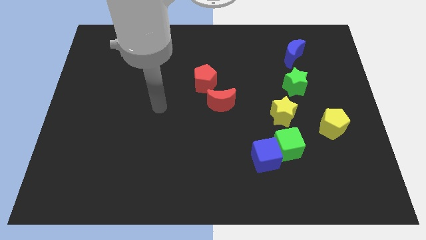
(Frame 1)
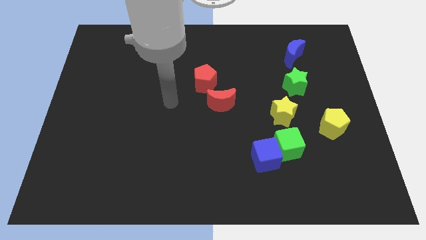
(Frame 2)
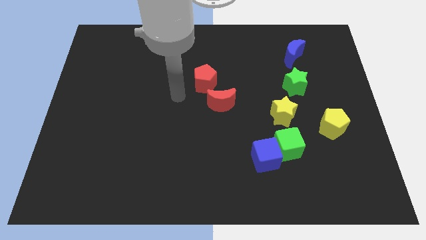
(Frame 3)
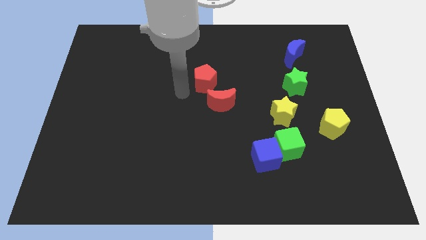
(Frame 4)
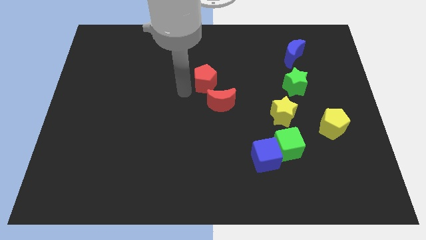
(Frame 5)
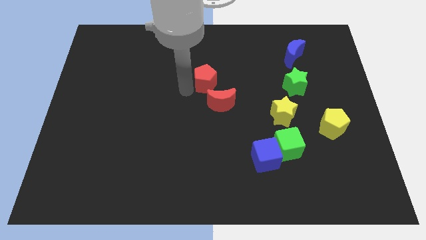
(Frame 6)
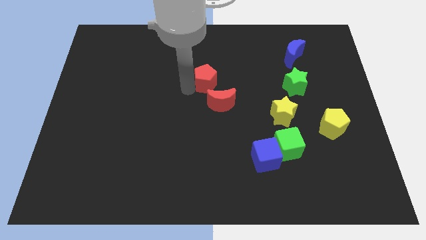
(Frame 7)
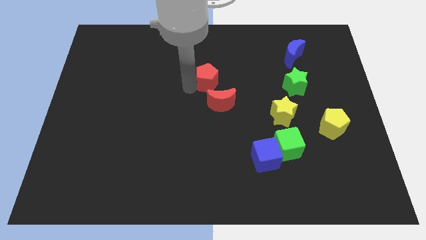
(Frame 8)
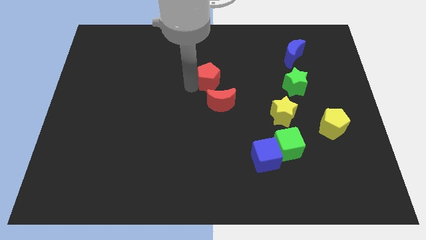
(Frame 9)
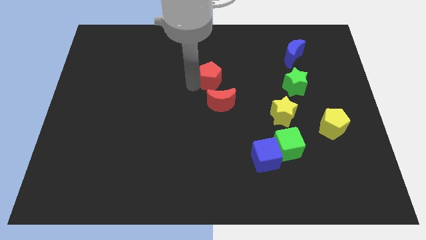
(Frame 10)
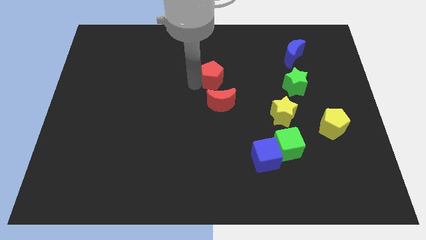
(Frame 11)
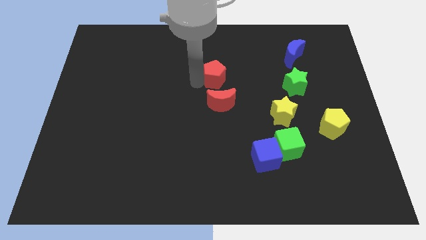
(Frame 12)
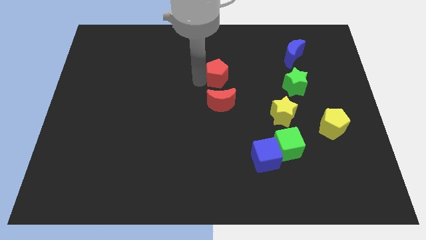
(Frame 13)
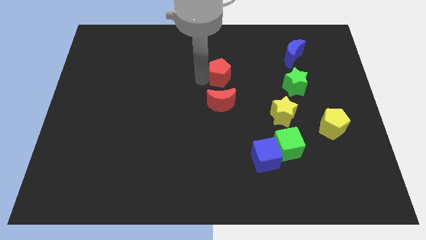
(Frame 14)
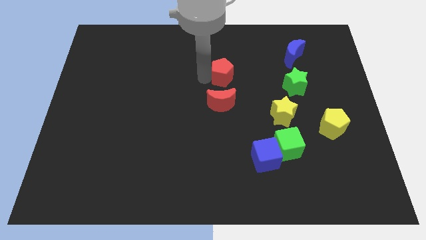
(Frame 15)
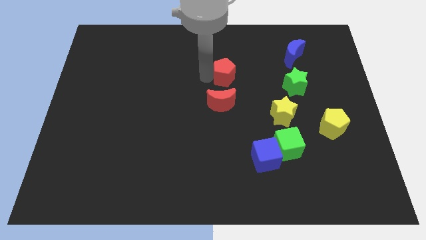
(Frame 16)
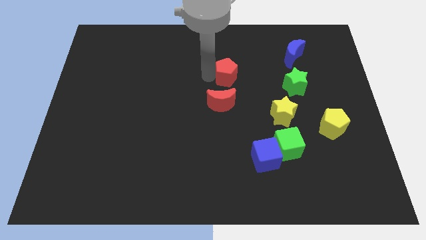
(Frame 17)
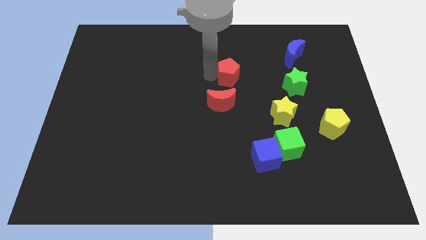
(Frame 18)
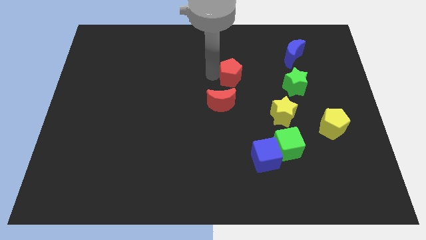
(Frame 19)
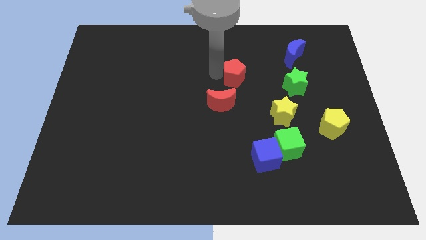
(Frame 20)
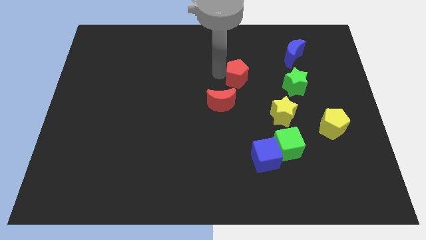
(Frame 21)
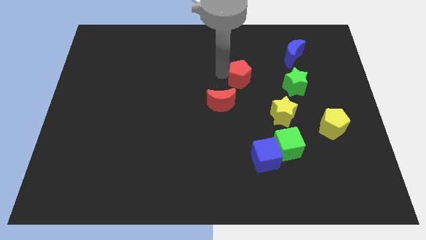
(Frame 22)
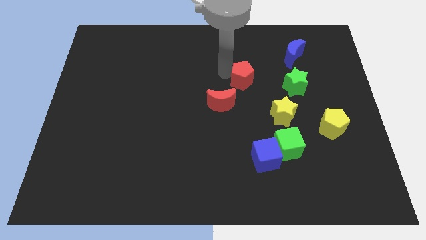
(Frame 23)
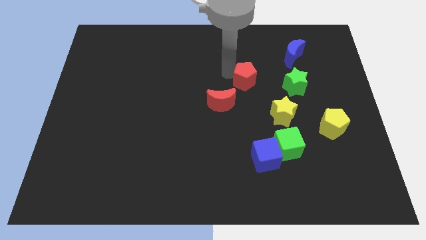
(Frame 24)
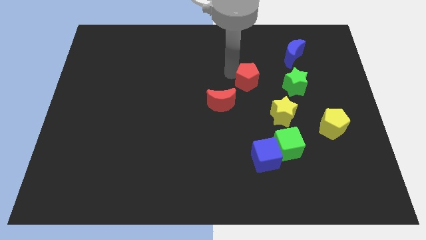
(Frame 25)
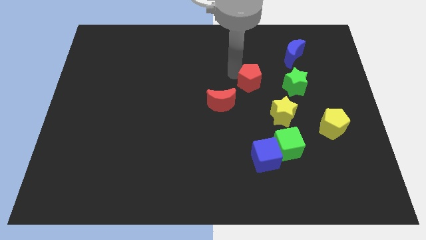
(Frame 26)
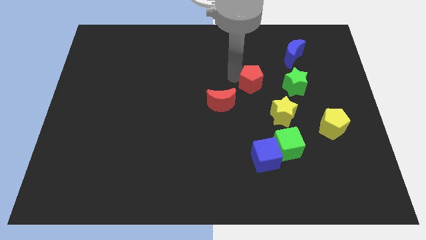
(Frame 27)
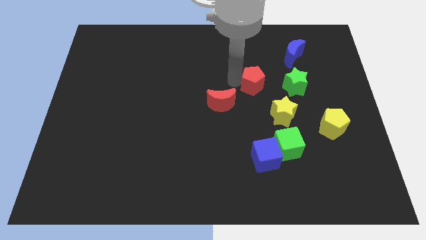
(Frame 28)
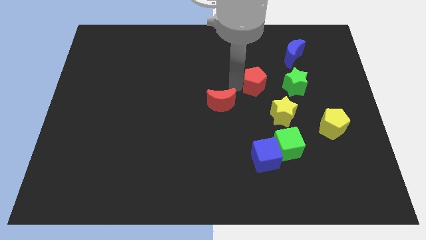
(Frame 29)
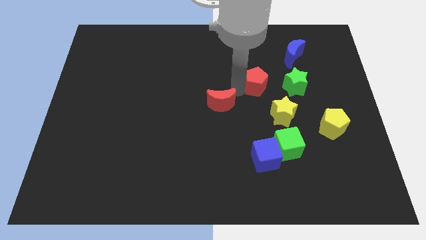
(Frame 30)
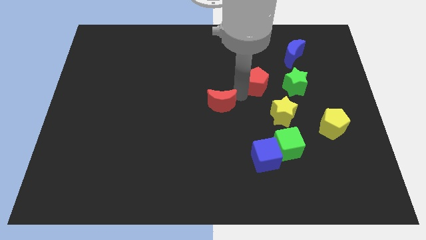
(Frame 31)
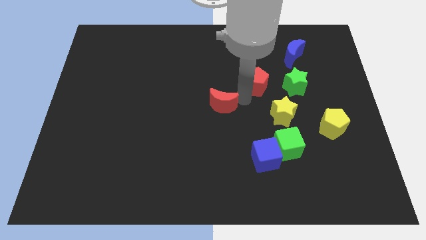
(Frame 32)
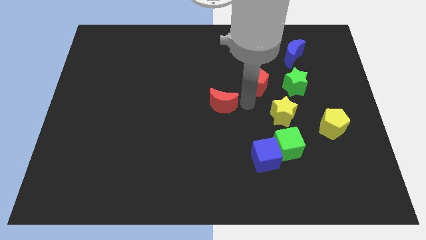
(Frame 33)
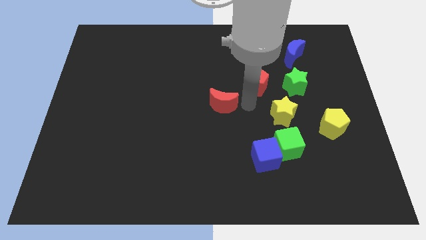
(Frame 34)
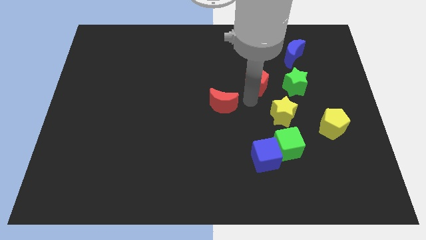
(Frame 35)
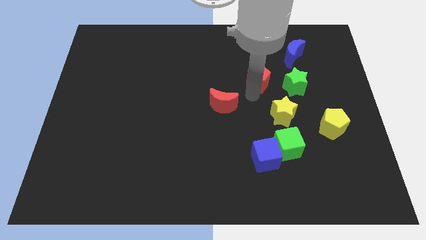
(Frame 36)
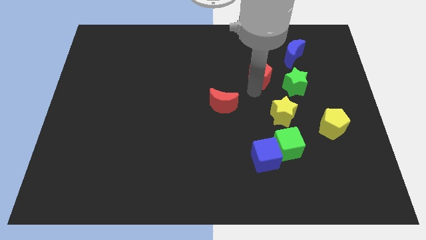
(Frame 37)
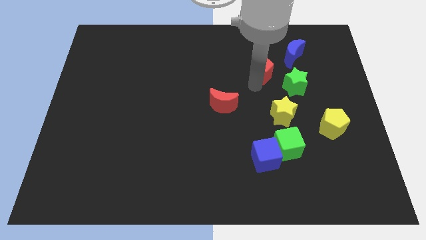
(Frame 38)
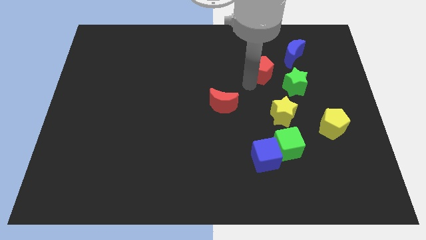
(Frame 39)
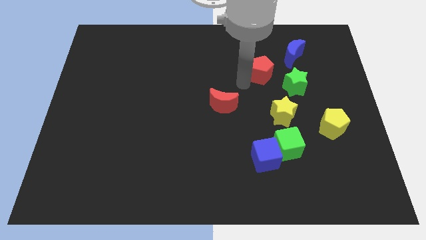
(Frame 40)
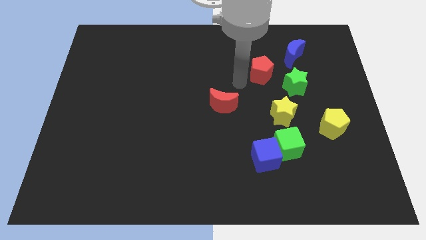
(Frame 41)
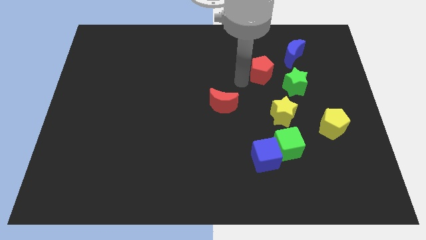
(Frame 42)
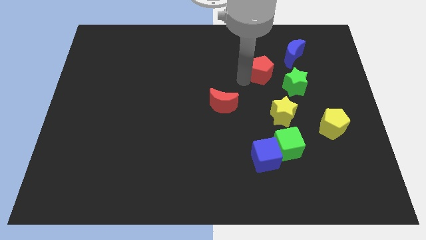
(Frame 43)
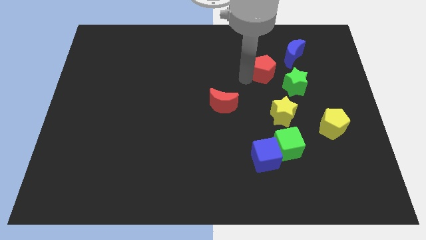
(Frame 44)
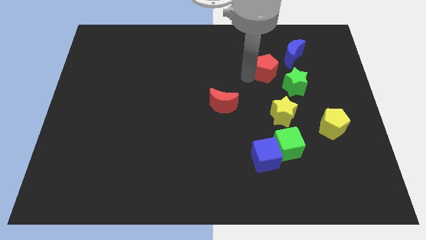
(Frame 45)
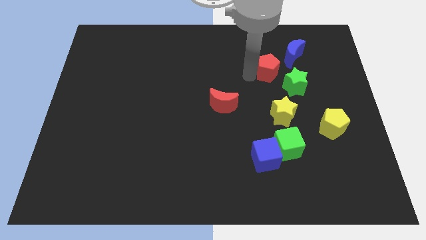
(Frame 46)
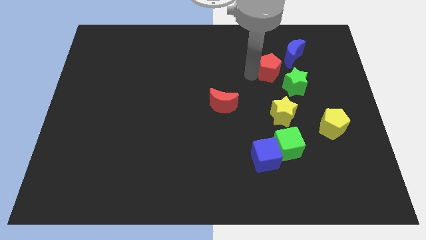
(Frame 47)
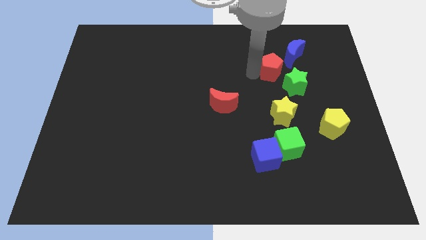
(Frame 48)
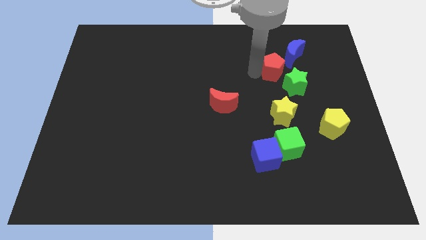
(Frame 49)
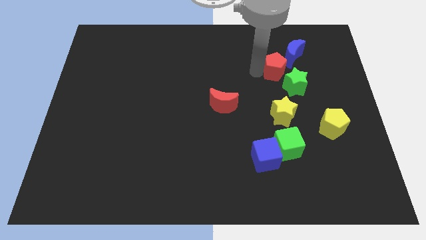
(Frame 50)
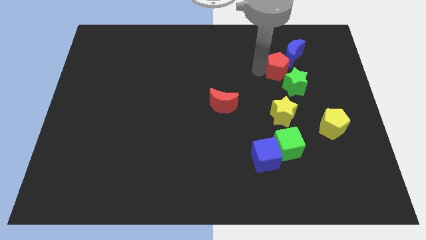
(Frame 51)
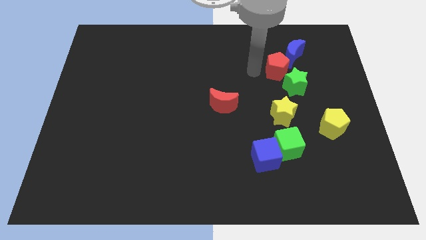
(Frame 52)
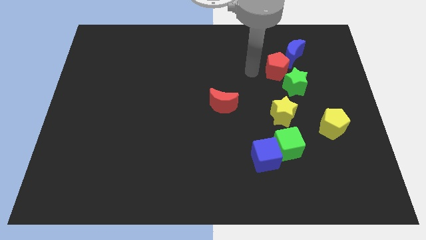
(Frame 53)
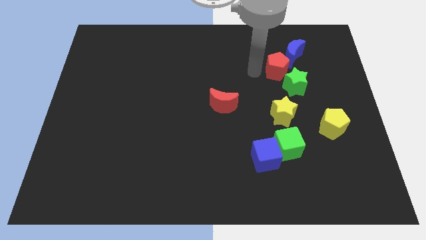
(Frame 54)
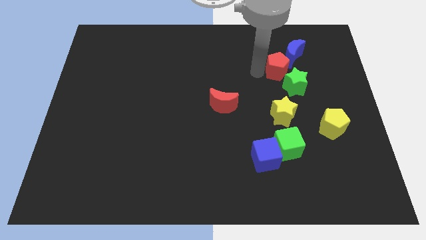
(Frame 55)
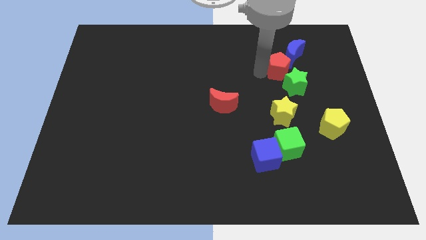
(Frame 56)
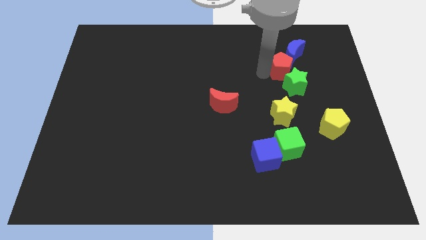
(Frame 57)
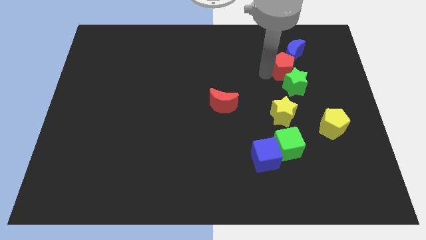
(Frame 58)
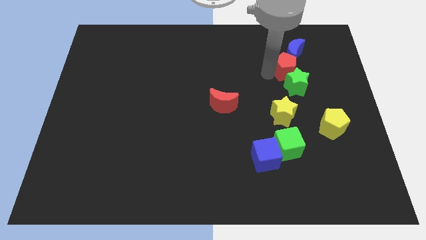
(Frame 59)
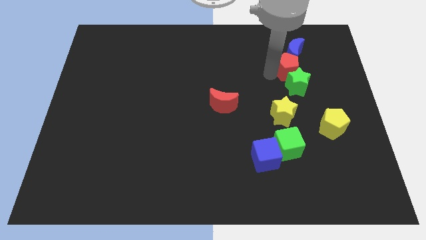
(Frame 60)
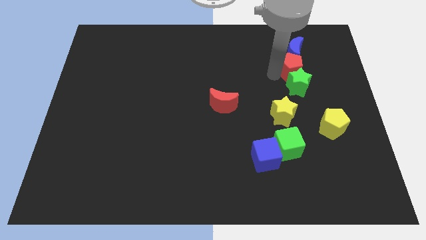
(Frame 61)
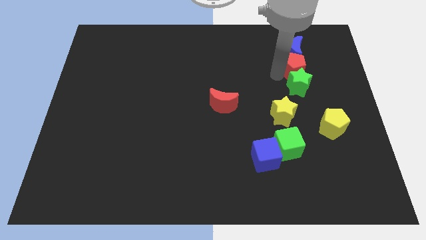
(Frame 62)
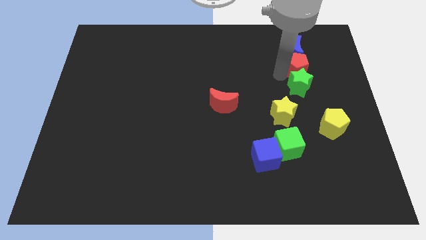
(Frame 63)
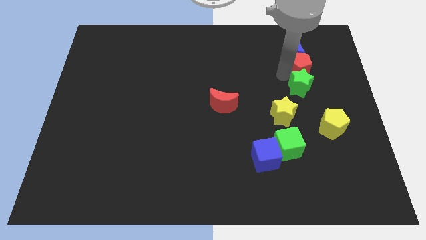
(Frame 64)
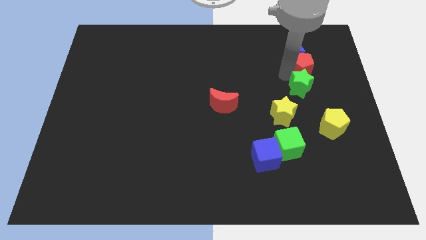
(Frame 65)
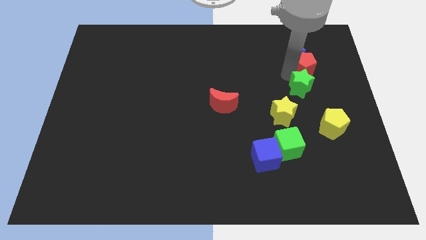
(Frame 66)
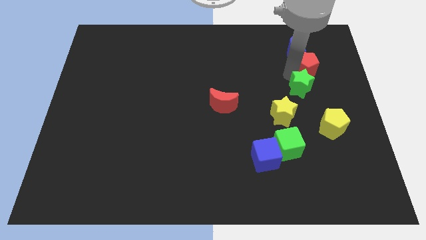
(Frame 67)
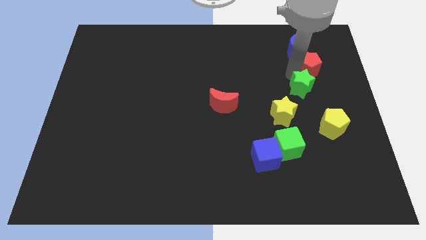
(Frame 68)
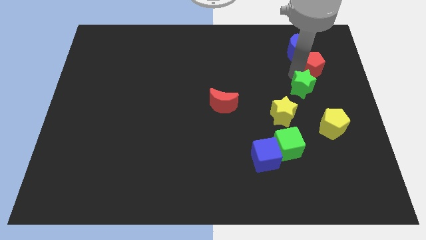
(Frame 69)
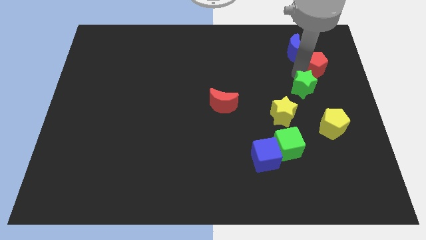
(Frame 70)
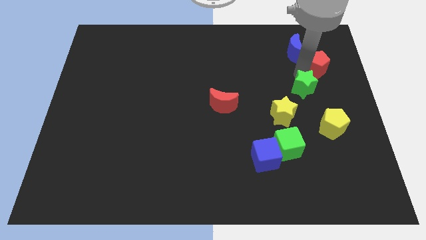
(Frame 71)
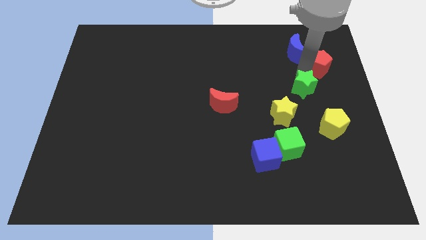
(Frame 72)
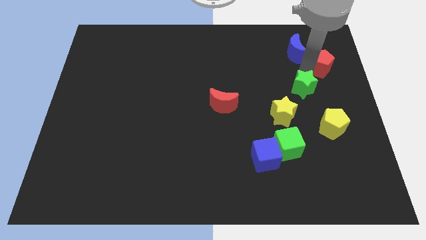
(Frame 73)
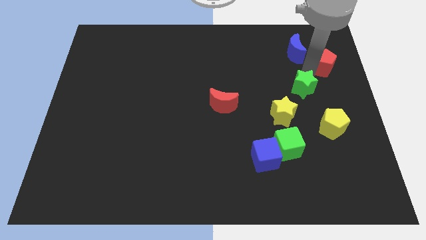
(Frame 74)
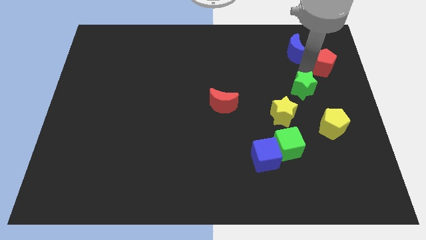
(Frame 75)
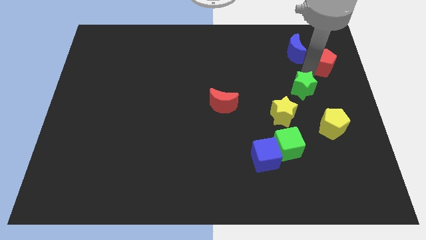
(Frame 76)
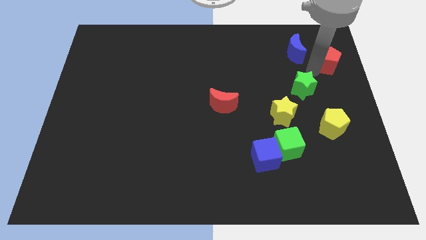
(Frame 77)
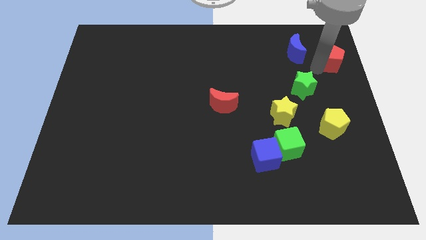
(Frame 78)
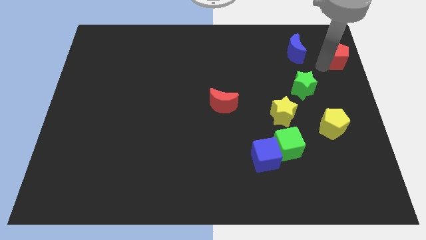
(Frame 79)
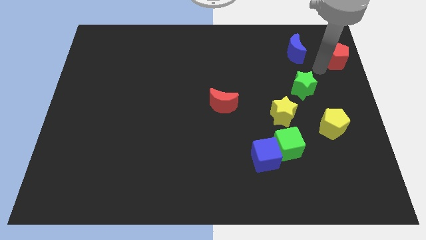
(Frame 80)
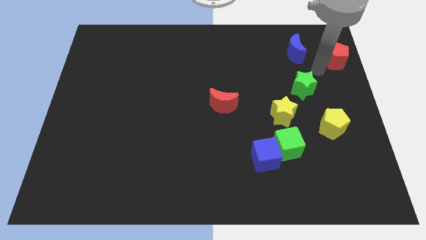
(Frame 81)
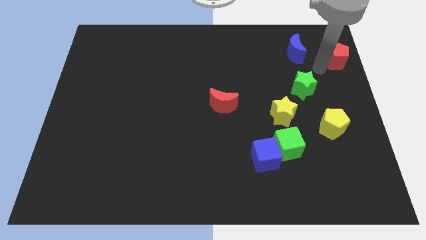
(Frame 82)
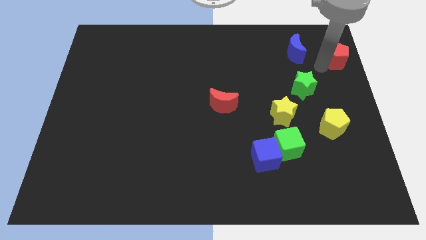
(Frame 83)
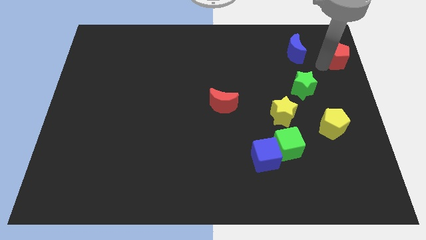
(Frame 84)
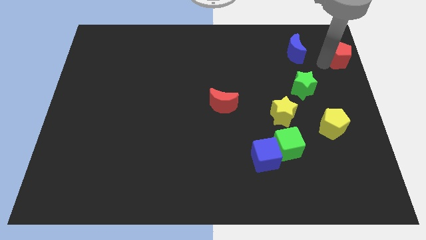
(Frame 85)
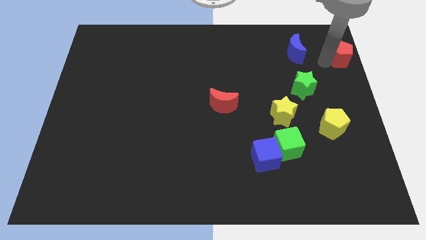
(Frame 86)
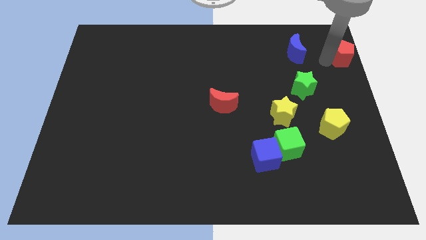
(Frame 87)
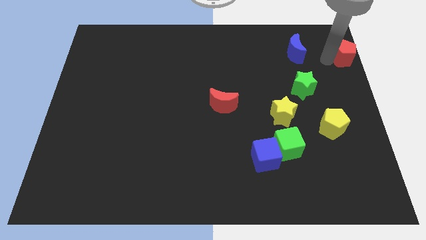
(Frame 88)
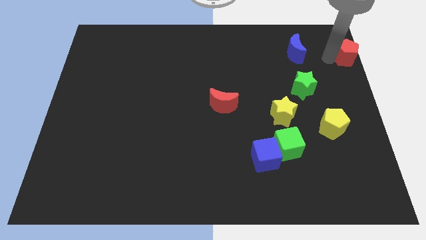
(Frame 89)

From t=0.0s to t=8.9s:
slide the red pentagon to the upper right corner
